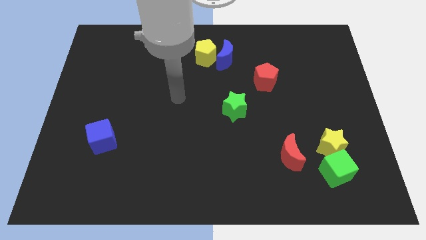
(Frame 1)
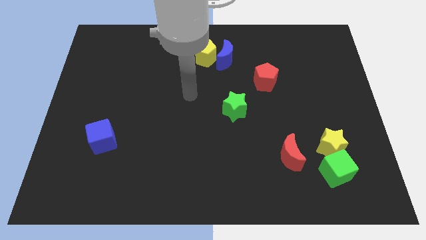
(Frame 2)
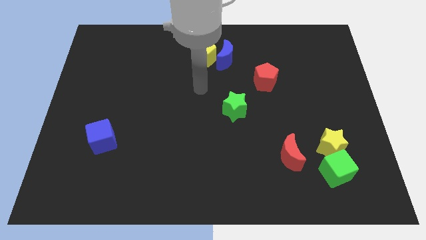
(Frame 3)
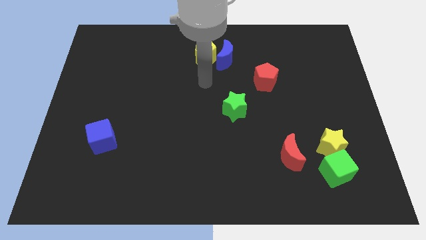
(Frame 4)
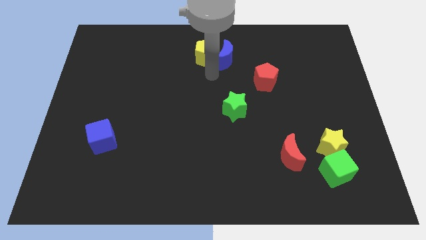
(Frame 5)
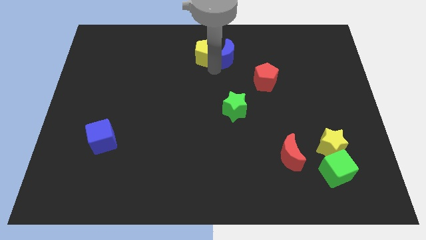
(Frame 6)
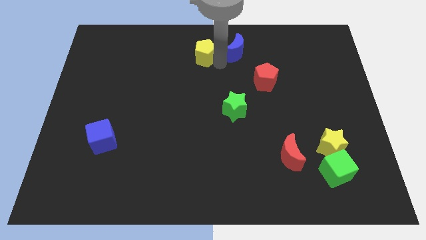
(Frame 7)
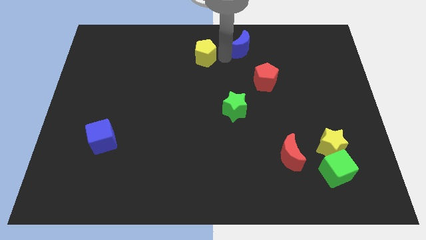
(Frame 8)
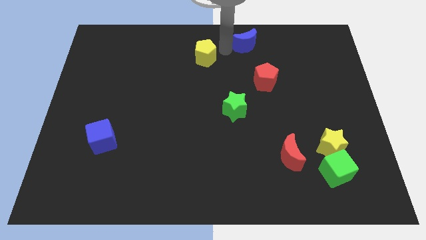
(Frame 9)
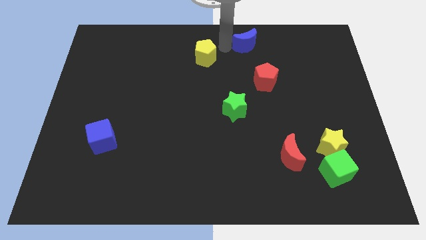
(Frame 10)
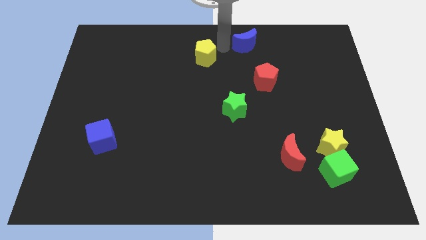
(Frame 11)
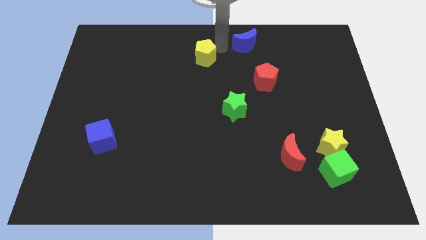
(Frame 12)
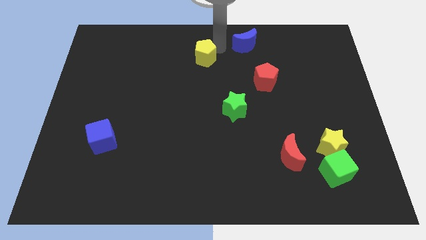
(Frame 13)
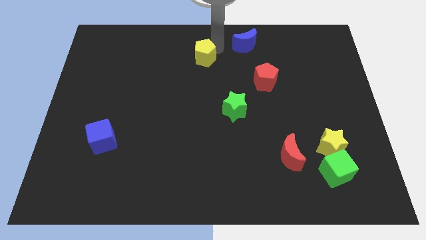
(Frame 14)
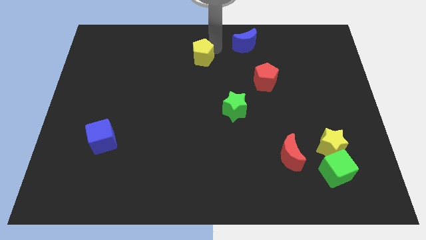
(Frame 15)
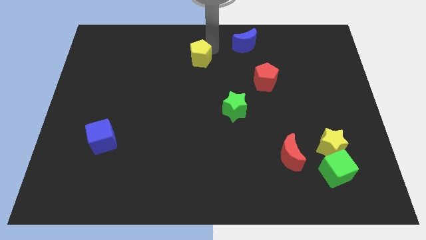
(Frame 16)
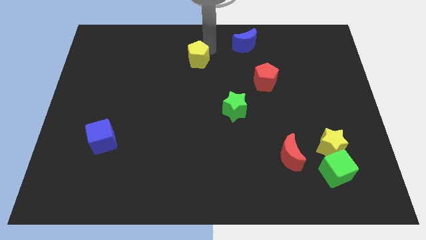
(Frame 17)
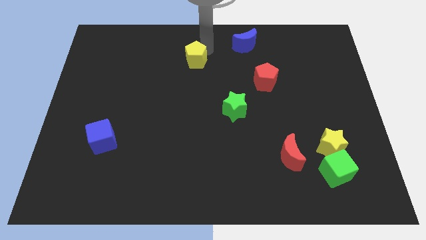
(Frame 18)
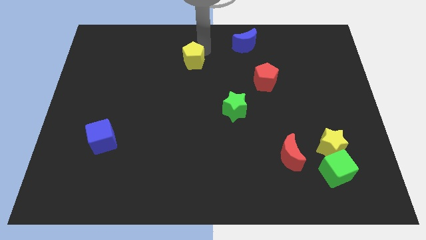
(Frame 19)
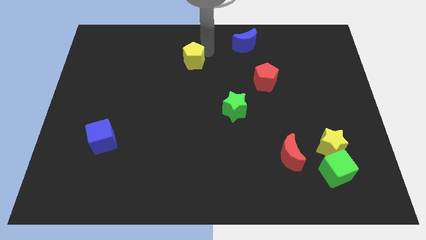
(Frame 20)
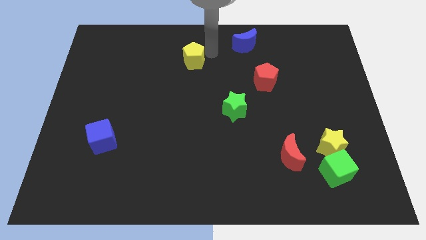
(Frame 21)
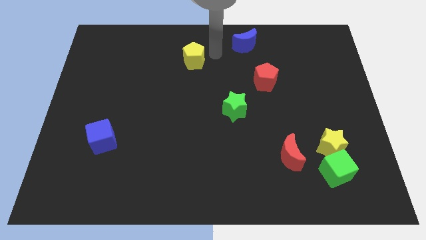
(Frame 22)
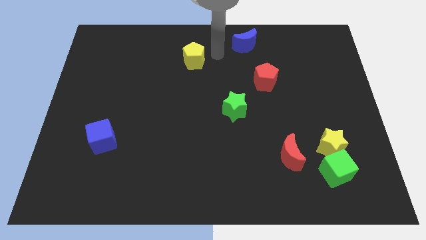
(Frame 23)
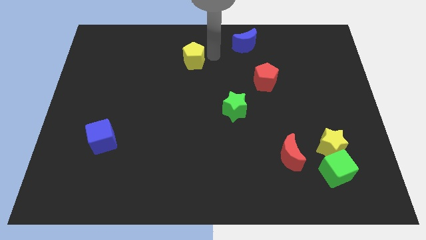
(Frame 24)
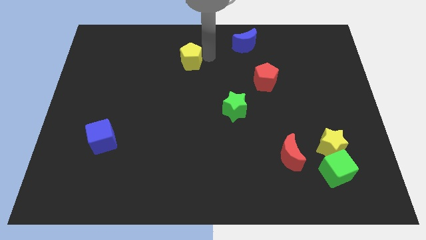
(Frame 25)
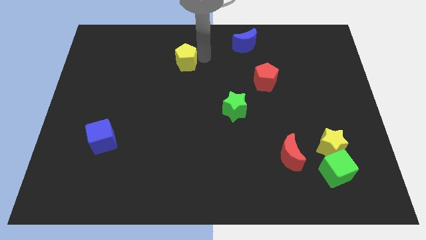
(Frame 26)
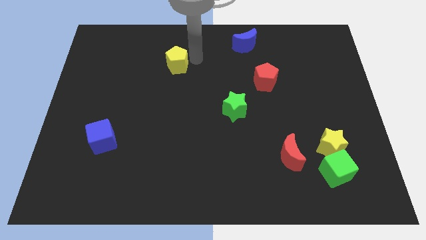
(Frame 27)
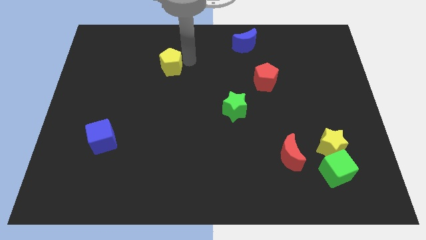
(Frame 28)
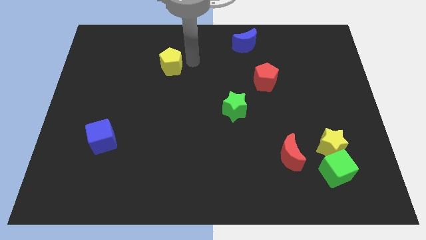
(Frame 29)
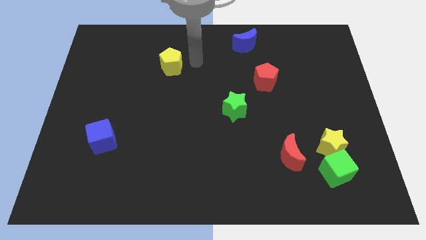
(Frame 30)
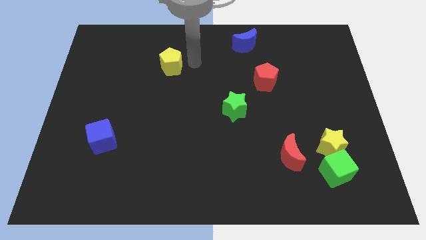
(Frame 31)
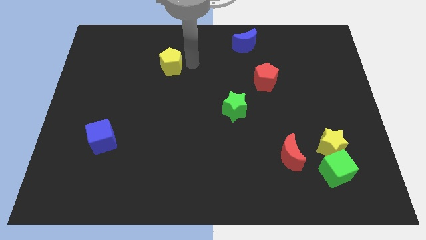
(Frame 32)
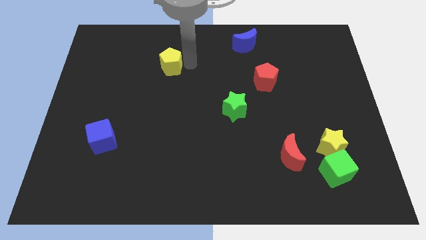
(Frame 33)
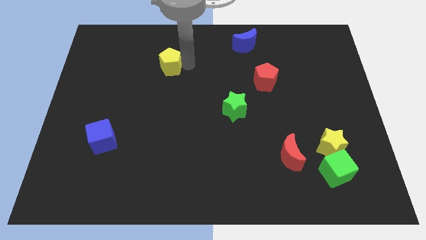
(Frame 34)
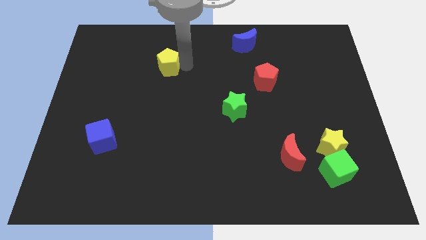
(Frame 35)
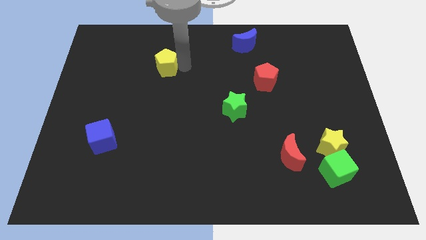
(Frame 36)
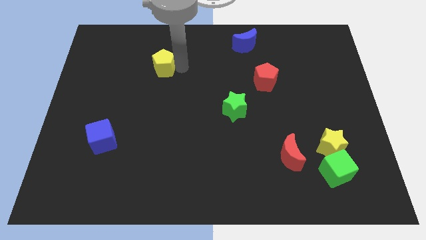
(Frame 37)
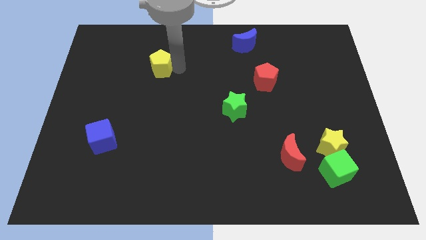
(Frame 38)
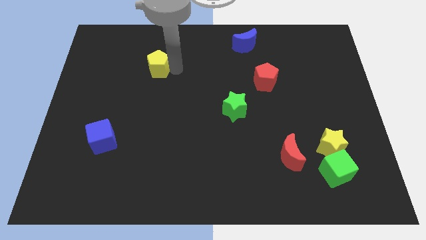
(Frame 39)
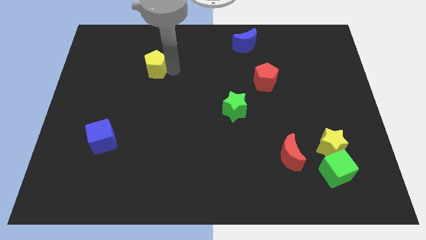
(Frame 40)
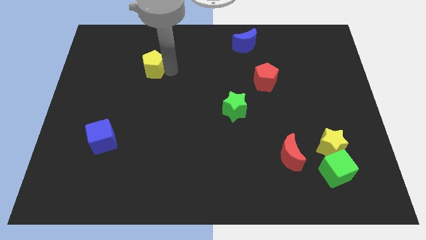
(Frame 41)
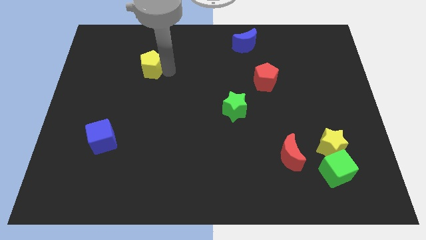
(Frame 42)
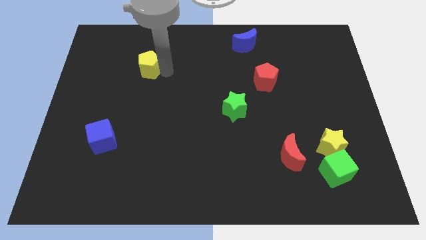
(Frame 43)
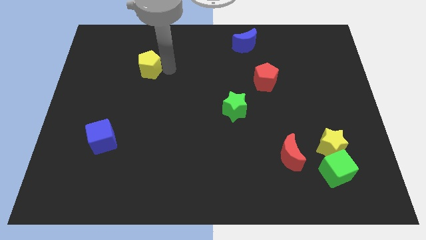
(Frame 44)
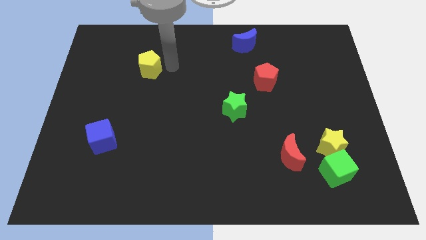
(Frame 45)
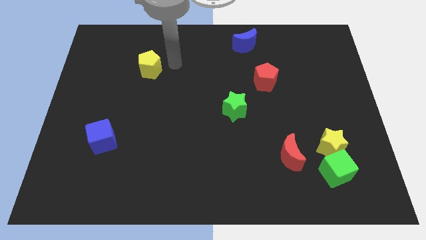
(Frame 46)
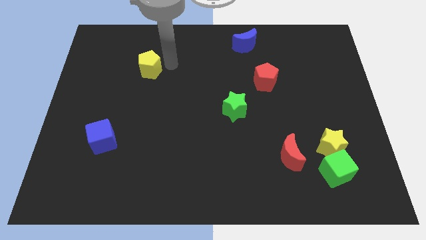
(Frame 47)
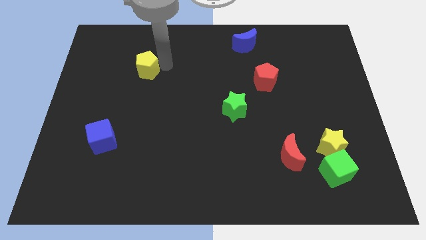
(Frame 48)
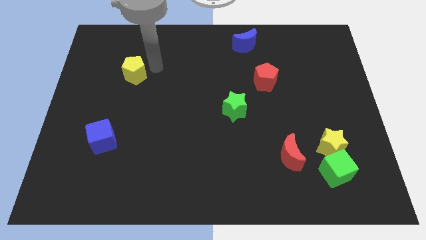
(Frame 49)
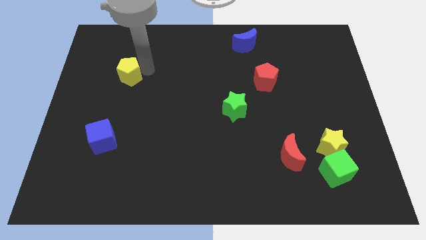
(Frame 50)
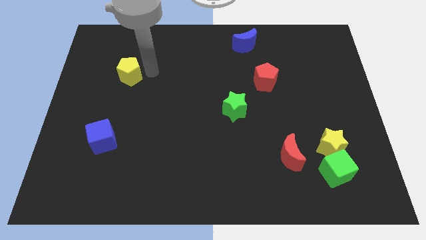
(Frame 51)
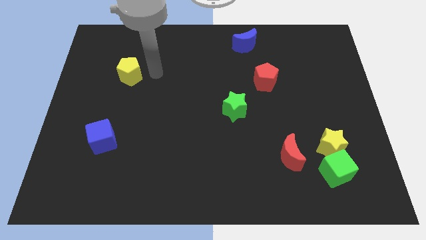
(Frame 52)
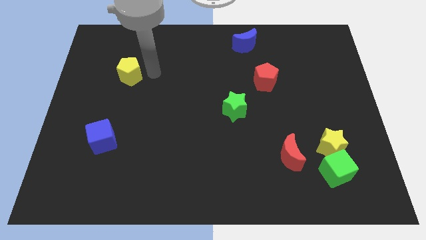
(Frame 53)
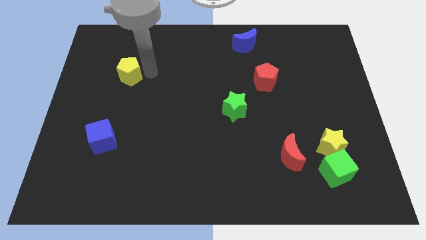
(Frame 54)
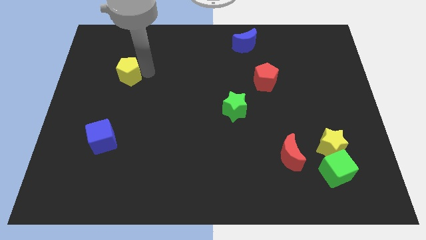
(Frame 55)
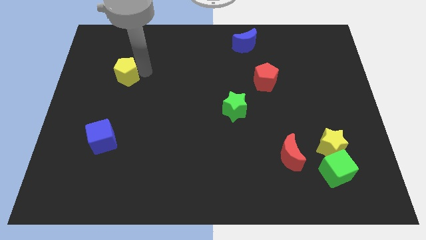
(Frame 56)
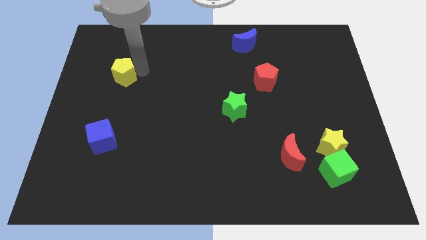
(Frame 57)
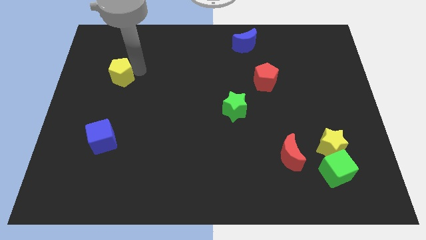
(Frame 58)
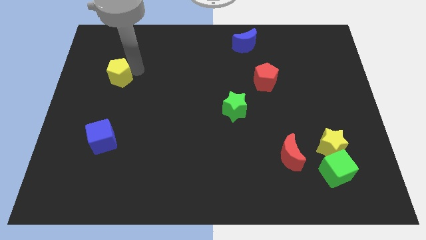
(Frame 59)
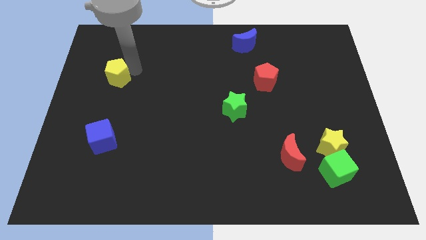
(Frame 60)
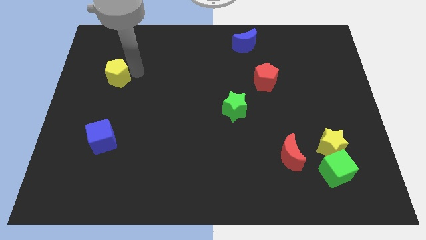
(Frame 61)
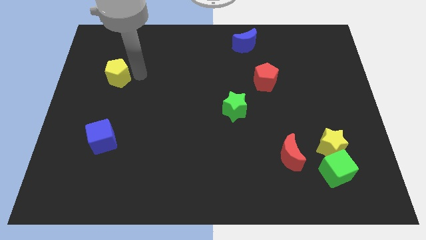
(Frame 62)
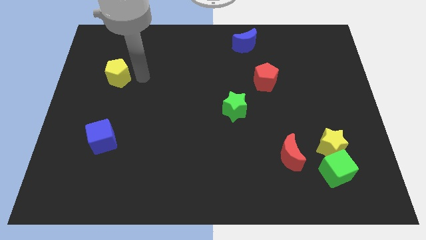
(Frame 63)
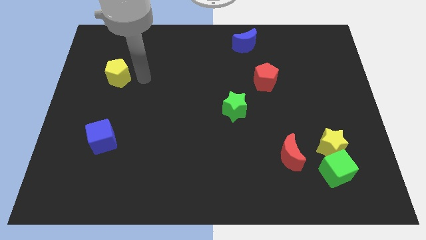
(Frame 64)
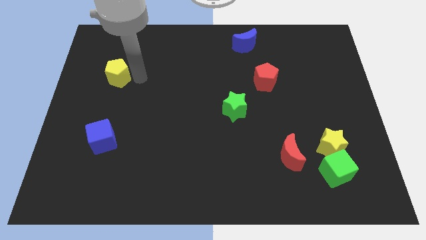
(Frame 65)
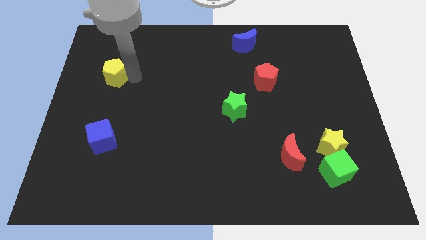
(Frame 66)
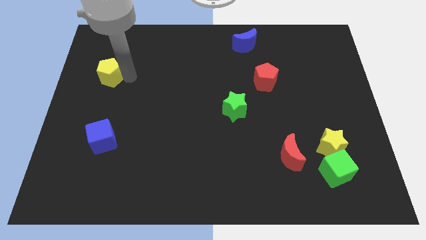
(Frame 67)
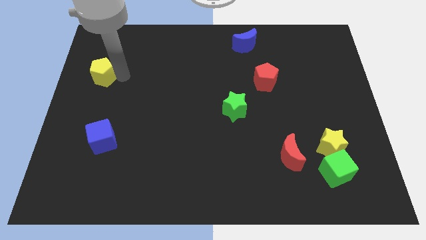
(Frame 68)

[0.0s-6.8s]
push the yellow pentagon to the left side of the board
